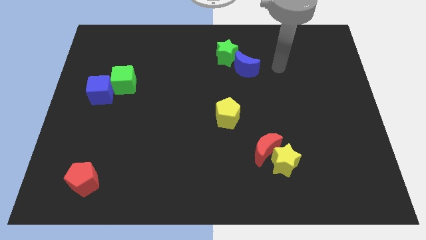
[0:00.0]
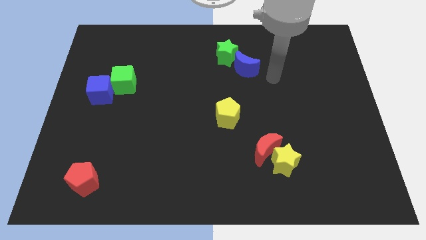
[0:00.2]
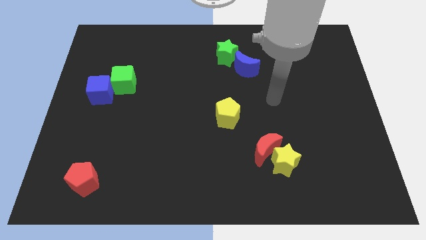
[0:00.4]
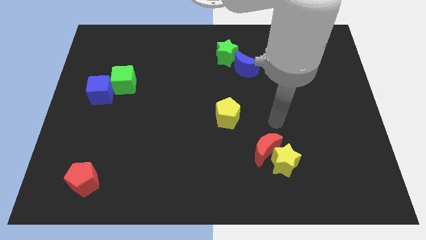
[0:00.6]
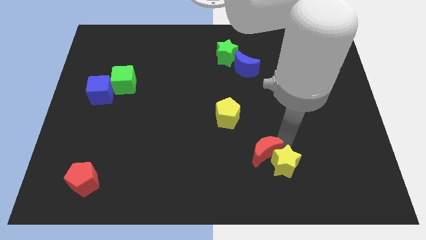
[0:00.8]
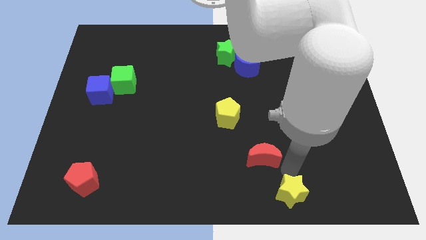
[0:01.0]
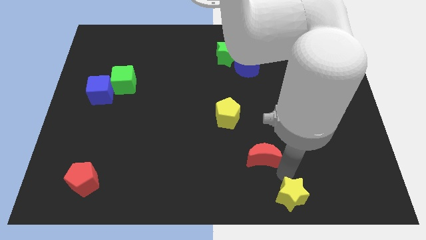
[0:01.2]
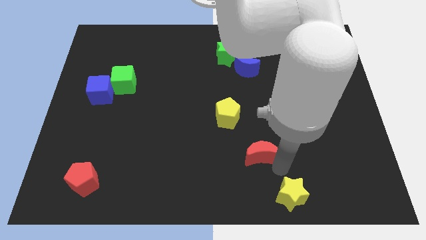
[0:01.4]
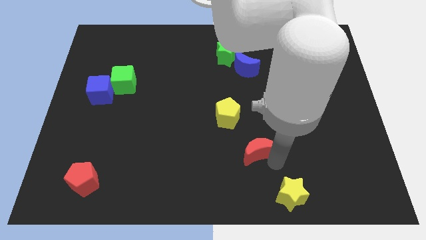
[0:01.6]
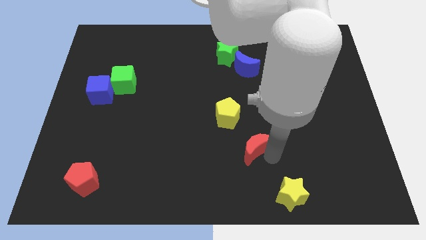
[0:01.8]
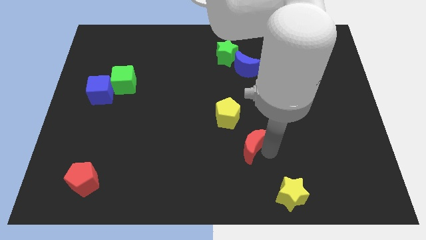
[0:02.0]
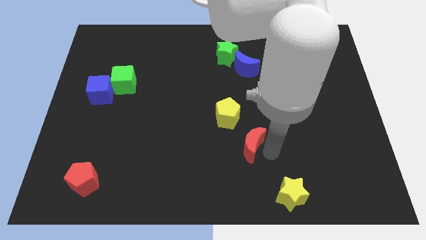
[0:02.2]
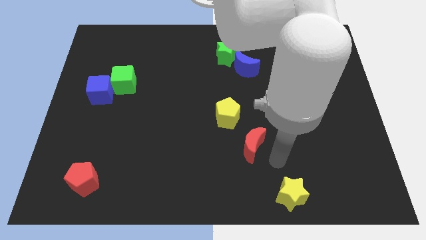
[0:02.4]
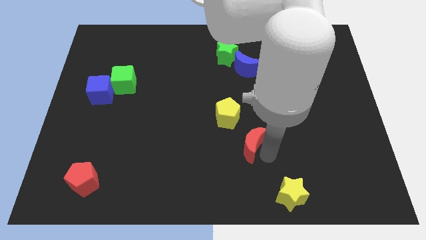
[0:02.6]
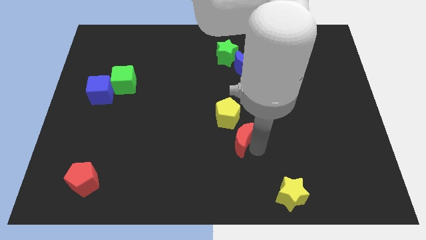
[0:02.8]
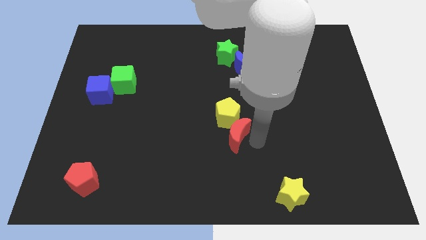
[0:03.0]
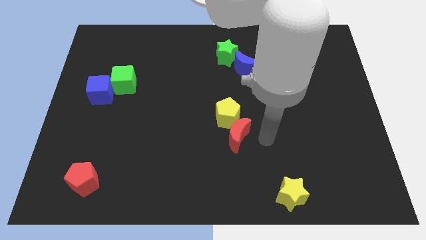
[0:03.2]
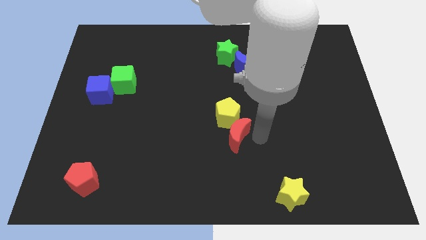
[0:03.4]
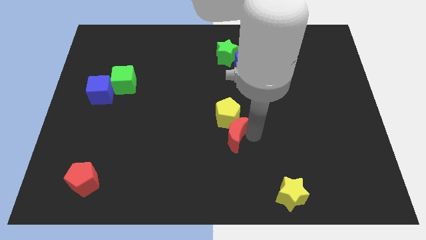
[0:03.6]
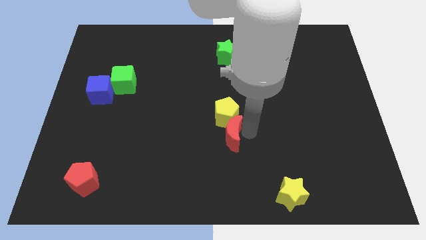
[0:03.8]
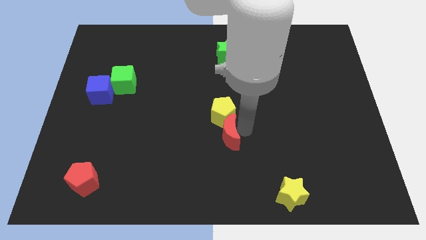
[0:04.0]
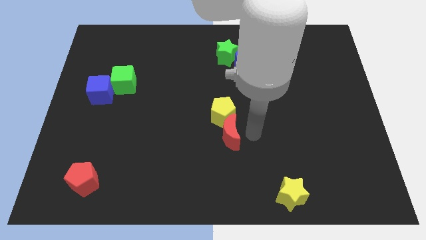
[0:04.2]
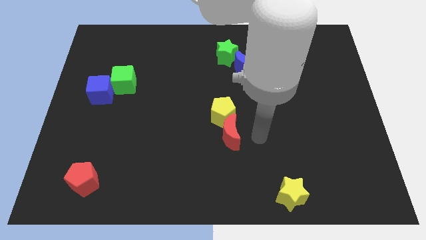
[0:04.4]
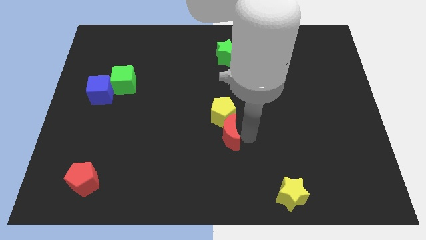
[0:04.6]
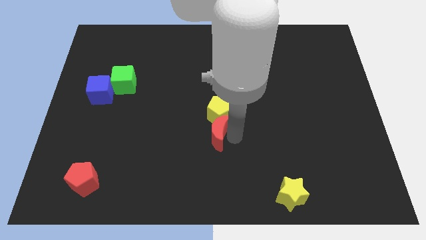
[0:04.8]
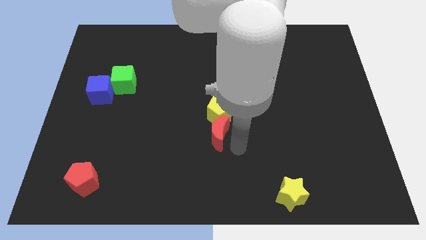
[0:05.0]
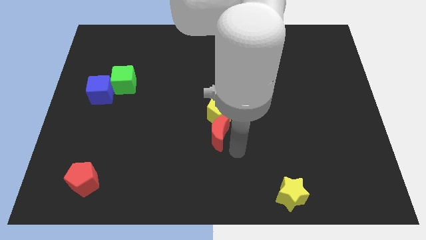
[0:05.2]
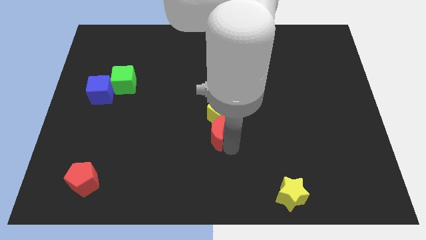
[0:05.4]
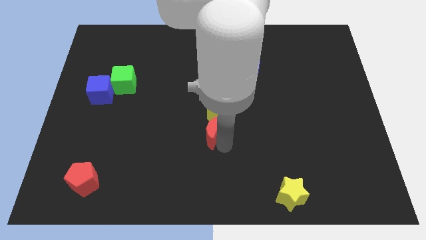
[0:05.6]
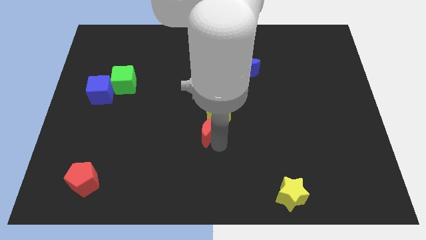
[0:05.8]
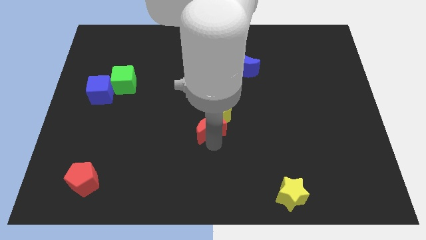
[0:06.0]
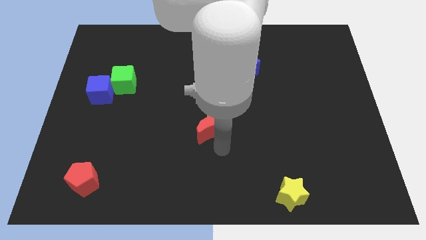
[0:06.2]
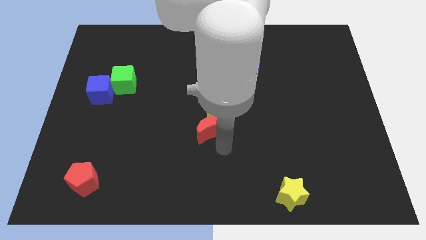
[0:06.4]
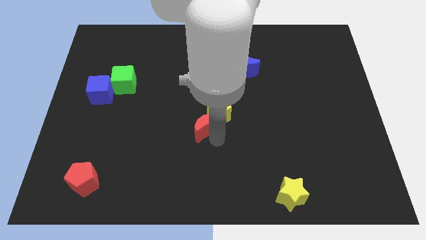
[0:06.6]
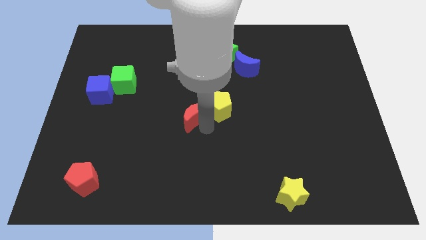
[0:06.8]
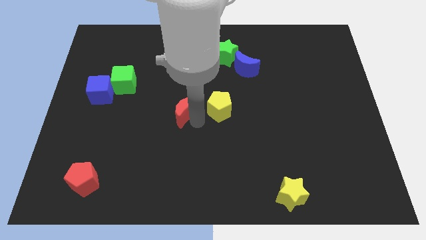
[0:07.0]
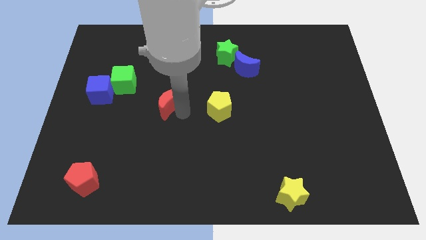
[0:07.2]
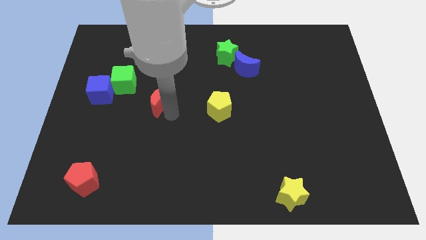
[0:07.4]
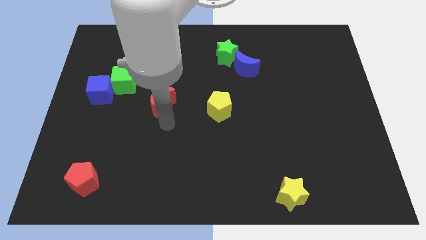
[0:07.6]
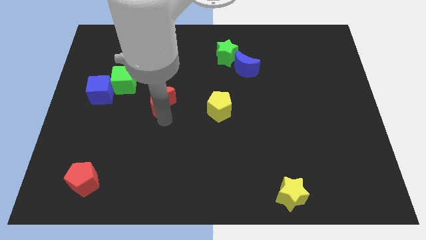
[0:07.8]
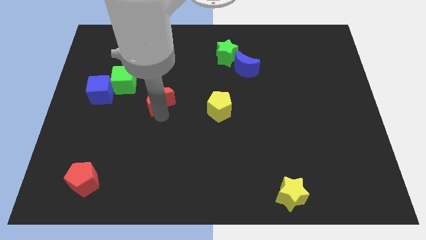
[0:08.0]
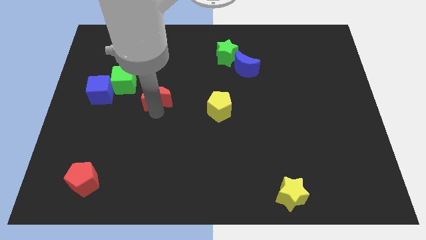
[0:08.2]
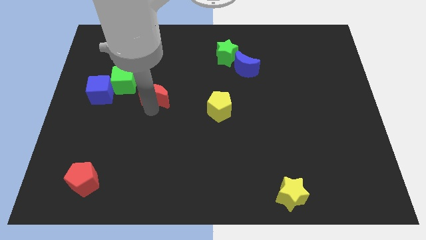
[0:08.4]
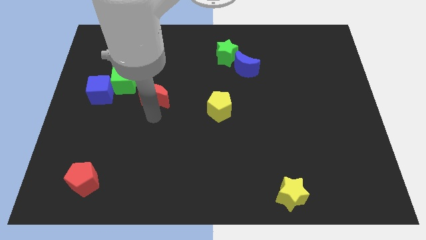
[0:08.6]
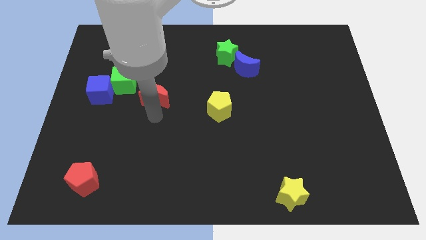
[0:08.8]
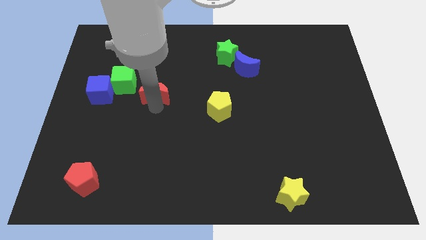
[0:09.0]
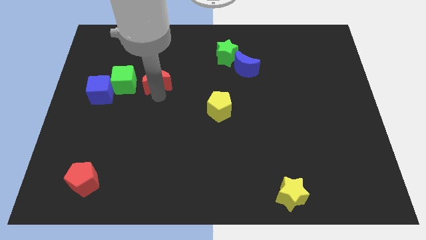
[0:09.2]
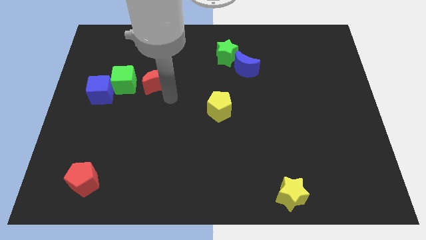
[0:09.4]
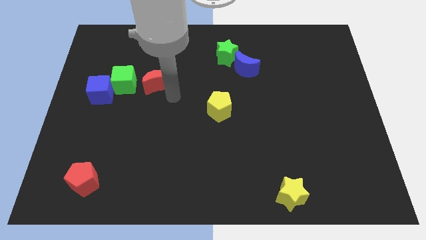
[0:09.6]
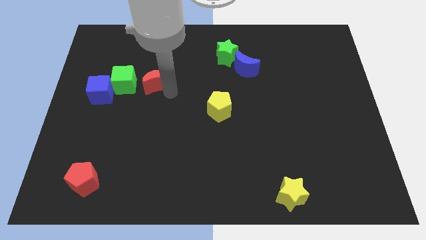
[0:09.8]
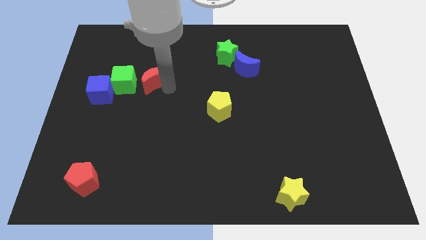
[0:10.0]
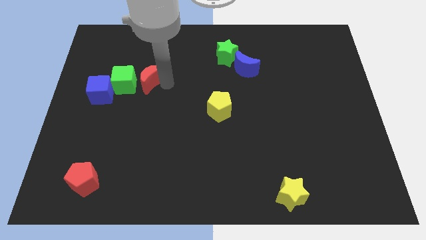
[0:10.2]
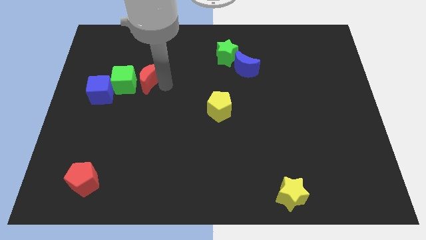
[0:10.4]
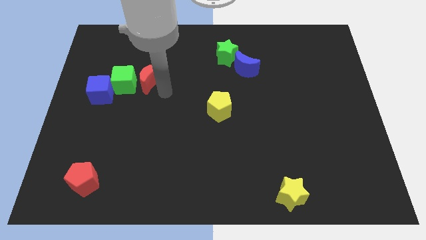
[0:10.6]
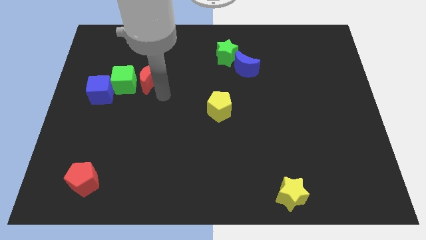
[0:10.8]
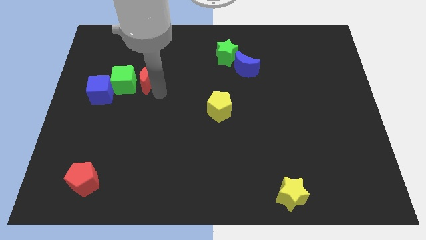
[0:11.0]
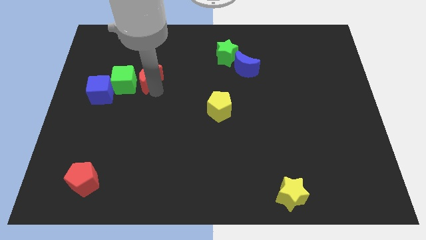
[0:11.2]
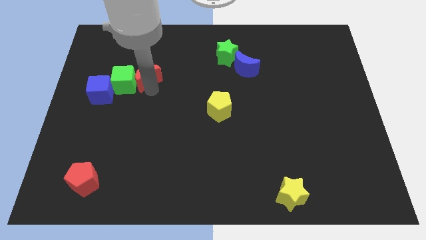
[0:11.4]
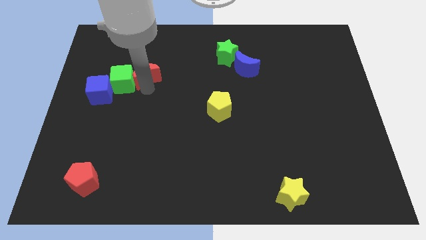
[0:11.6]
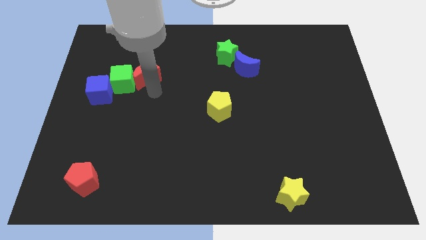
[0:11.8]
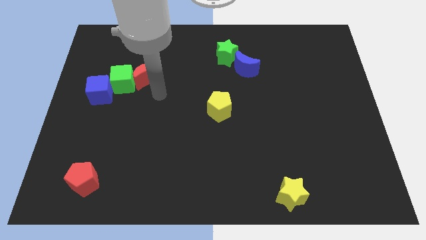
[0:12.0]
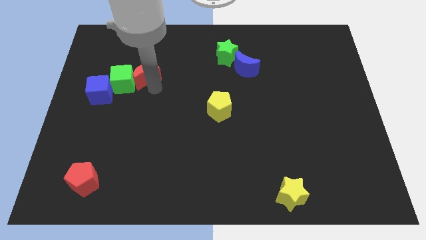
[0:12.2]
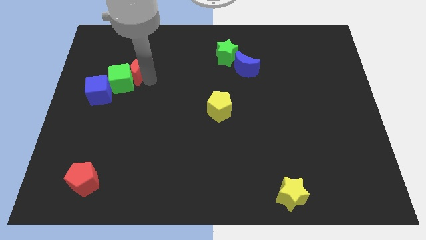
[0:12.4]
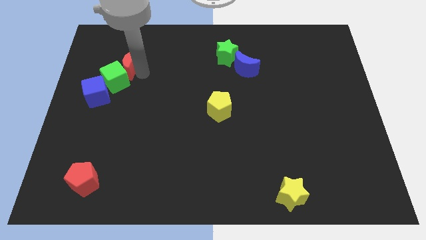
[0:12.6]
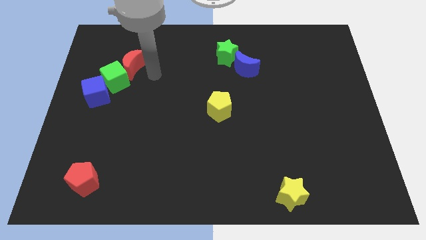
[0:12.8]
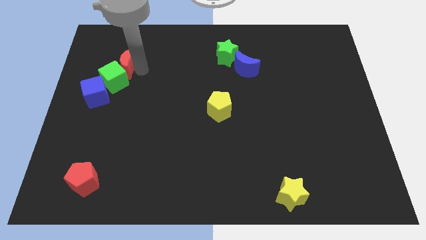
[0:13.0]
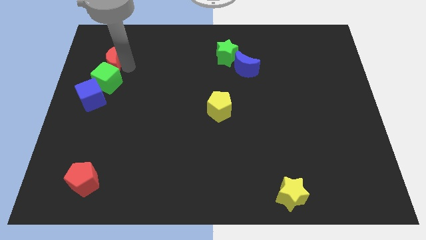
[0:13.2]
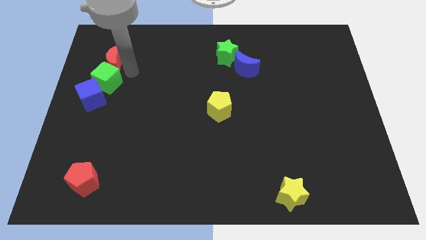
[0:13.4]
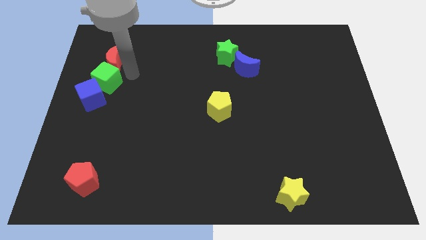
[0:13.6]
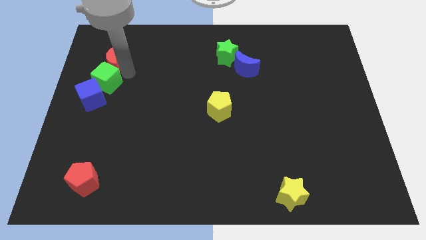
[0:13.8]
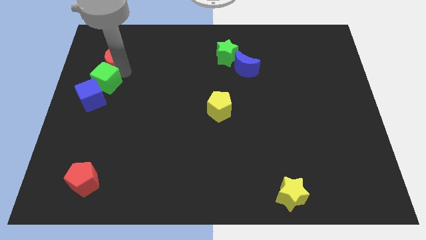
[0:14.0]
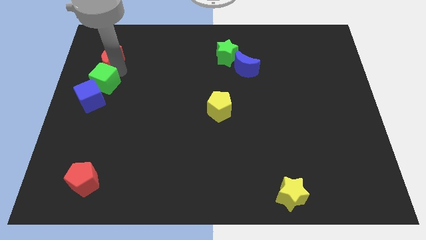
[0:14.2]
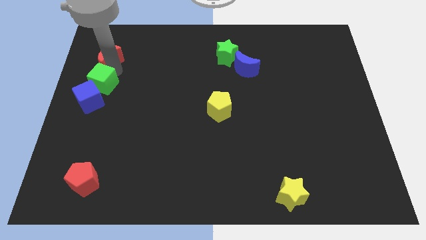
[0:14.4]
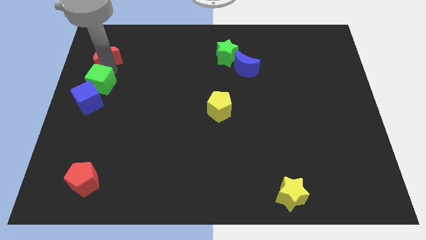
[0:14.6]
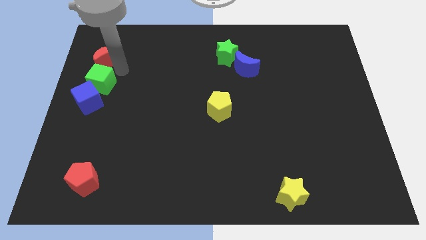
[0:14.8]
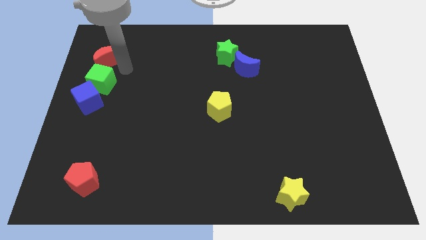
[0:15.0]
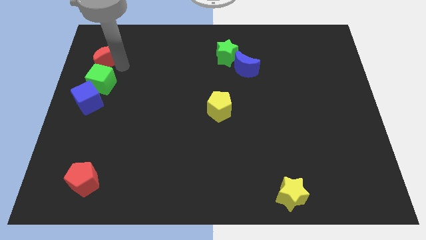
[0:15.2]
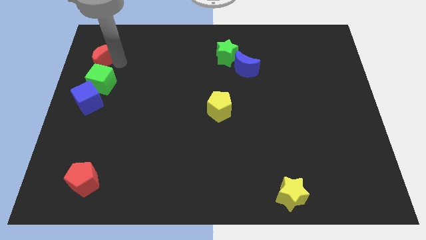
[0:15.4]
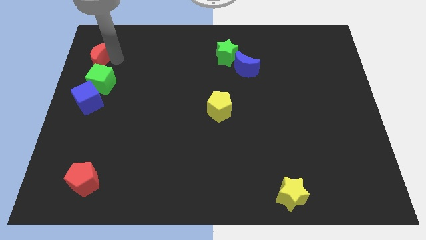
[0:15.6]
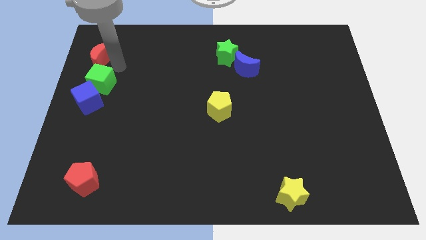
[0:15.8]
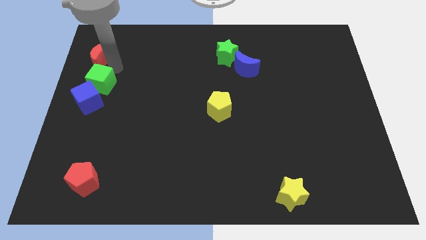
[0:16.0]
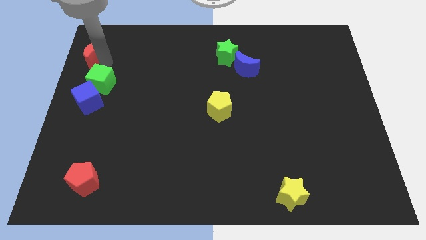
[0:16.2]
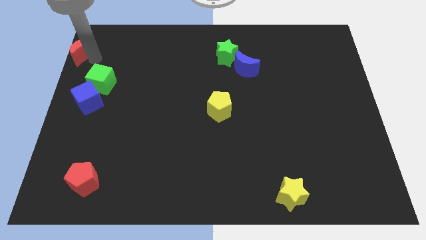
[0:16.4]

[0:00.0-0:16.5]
push the red moon to the top left
